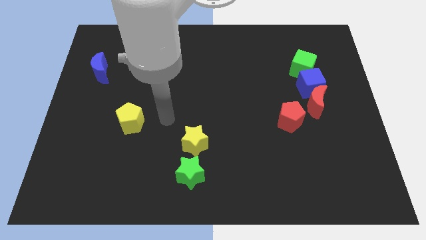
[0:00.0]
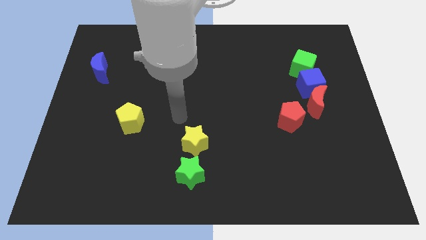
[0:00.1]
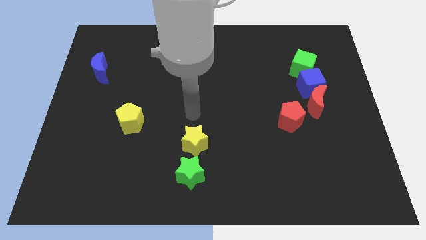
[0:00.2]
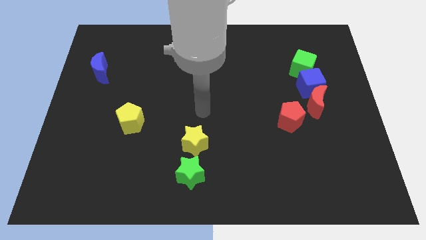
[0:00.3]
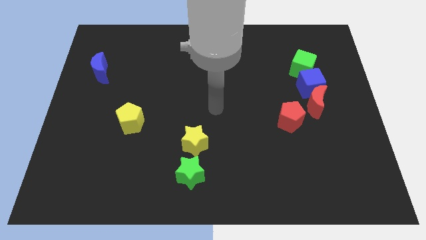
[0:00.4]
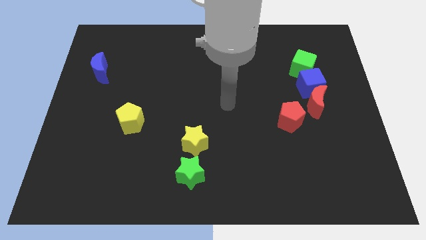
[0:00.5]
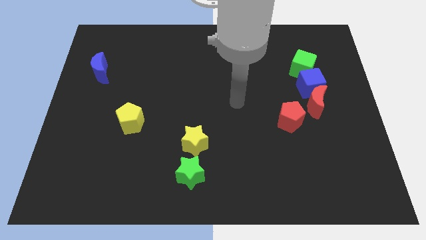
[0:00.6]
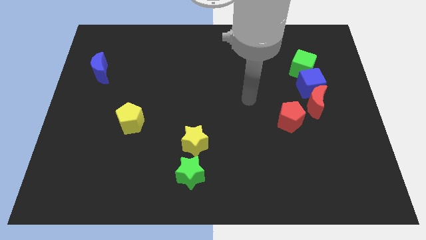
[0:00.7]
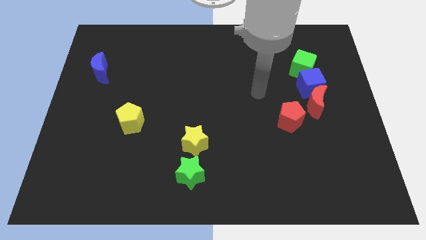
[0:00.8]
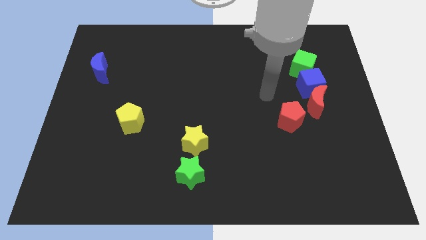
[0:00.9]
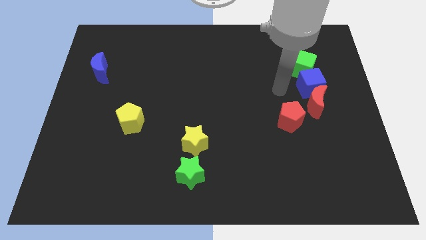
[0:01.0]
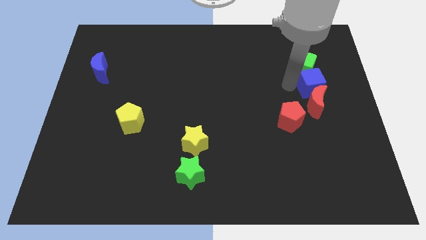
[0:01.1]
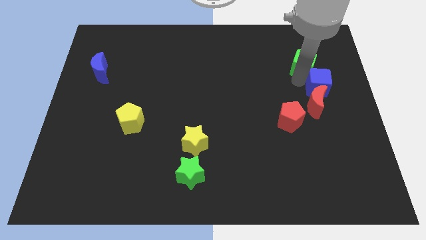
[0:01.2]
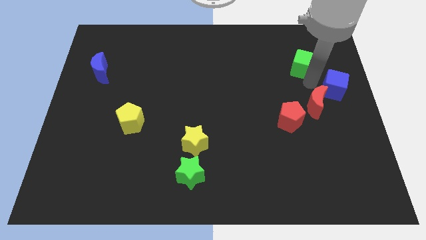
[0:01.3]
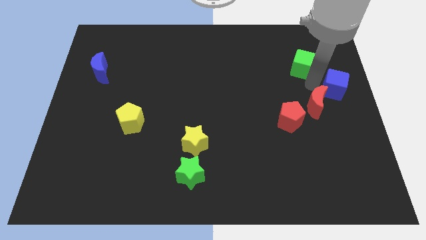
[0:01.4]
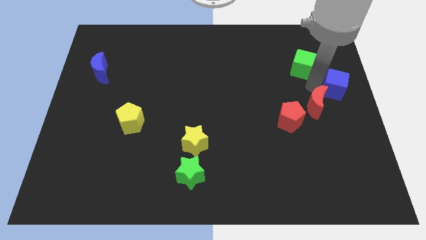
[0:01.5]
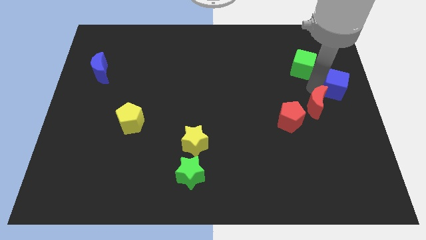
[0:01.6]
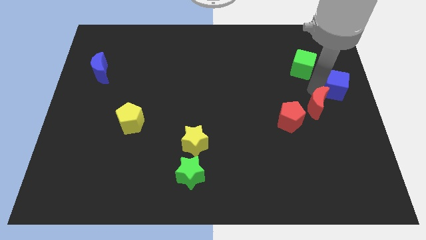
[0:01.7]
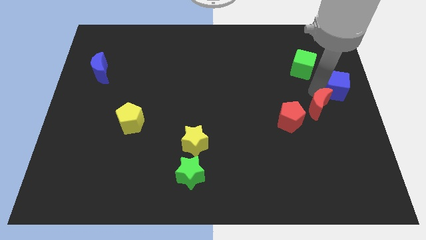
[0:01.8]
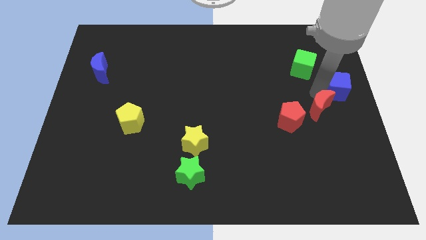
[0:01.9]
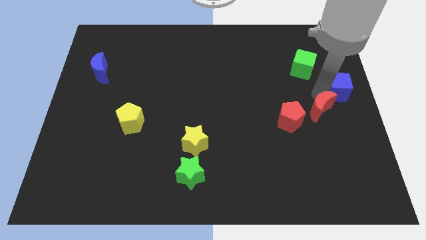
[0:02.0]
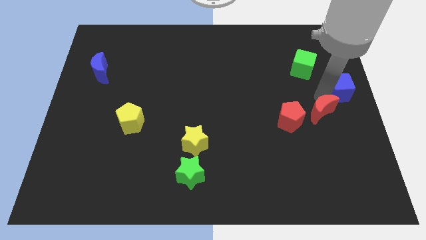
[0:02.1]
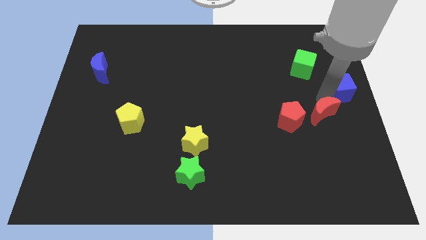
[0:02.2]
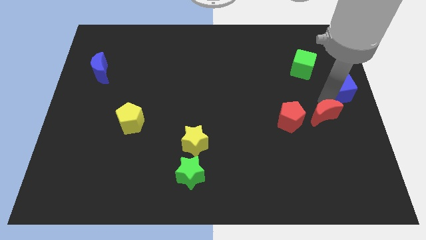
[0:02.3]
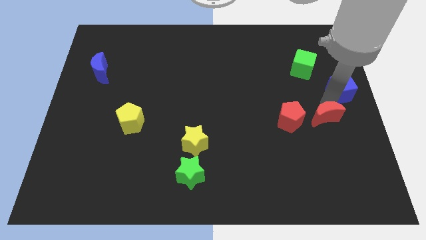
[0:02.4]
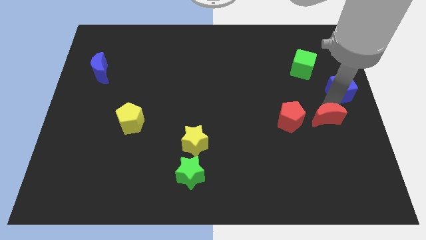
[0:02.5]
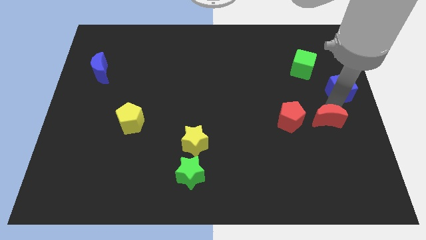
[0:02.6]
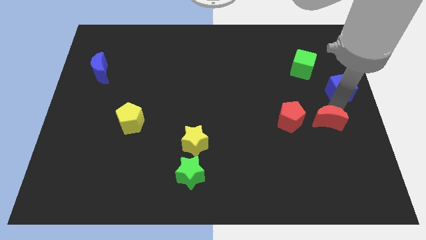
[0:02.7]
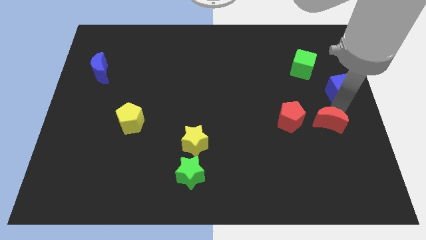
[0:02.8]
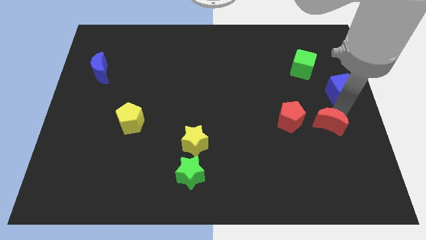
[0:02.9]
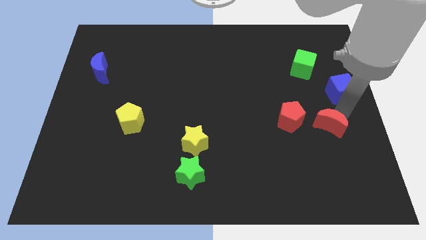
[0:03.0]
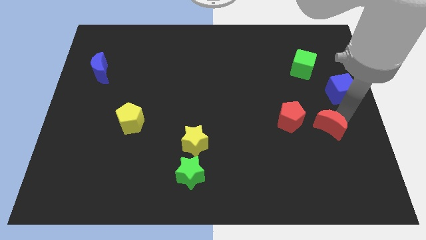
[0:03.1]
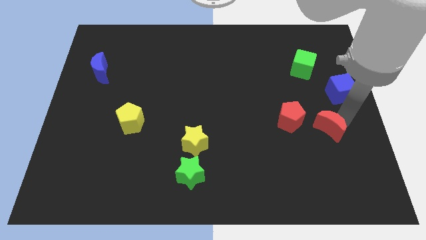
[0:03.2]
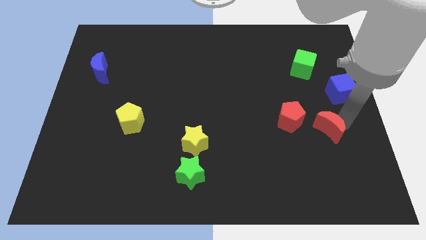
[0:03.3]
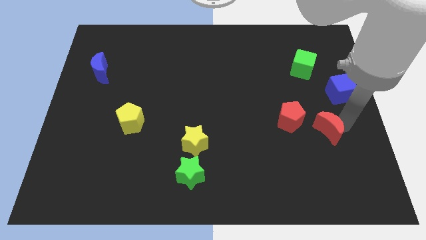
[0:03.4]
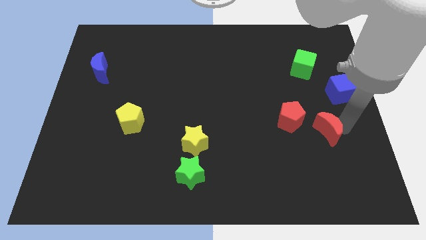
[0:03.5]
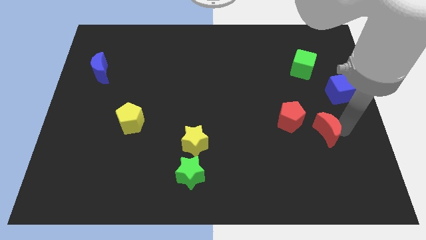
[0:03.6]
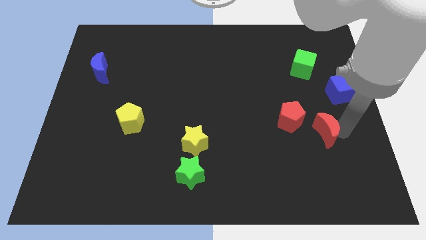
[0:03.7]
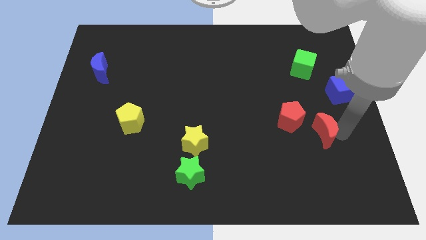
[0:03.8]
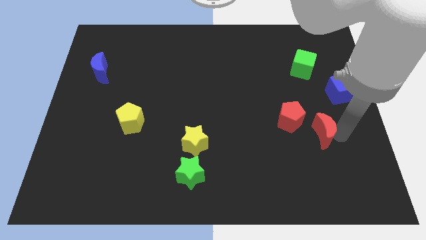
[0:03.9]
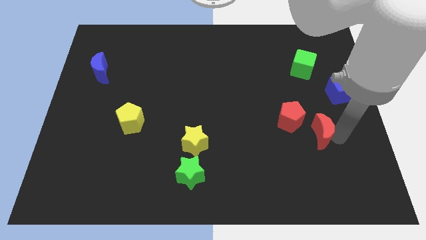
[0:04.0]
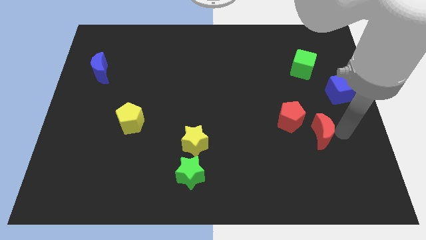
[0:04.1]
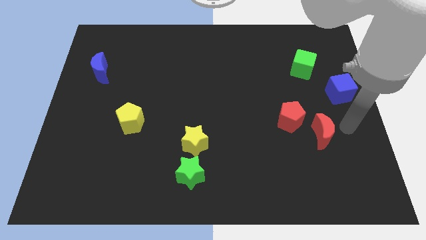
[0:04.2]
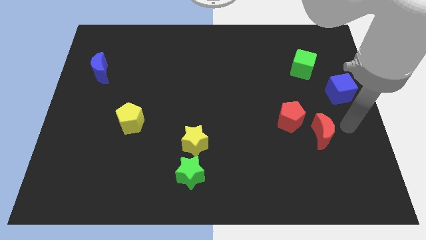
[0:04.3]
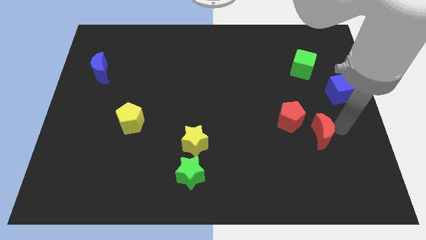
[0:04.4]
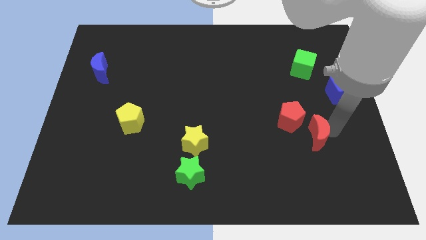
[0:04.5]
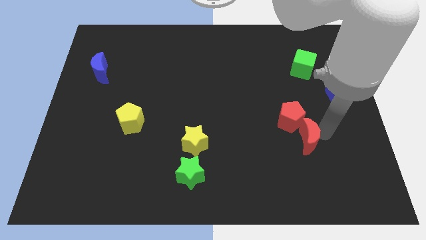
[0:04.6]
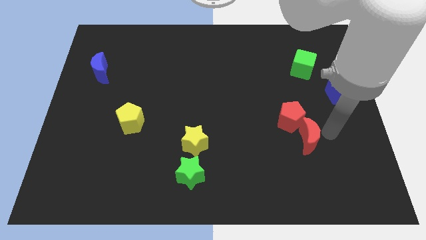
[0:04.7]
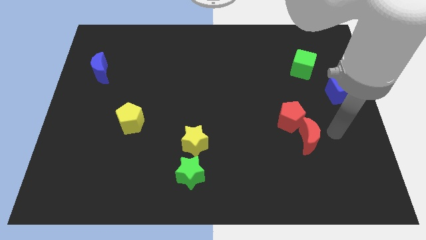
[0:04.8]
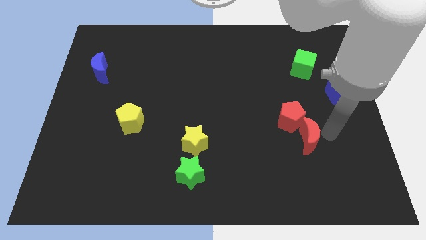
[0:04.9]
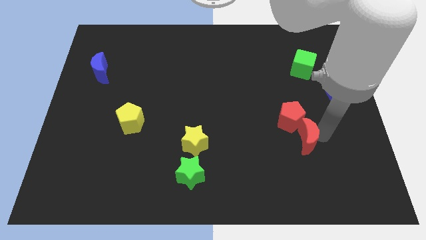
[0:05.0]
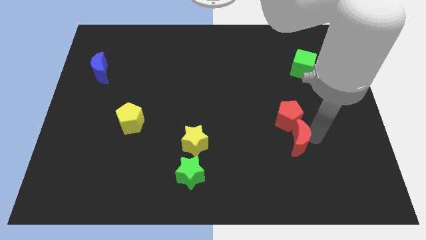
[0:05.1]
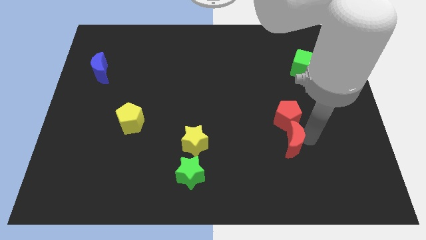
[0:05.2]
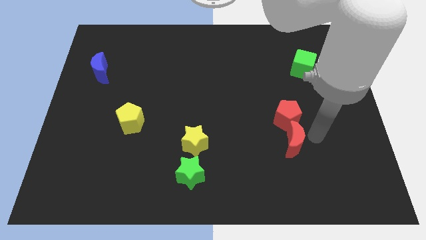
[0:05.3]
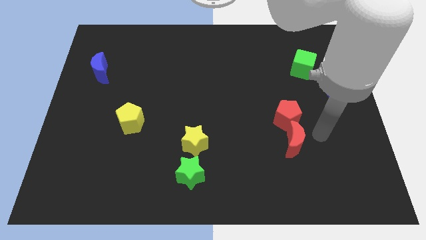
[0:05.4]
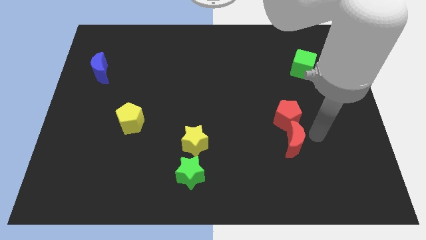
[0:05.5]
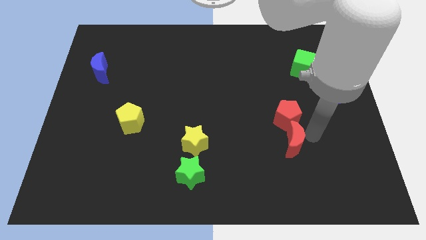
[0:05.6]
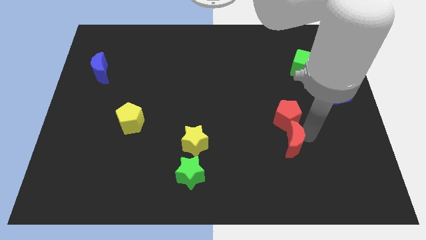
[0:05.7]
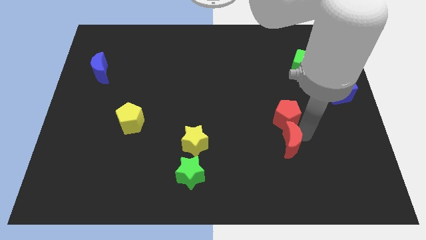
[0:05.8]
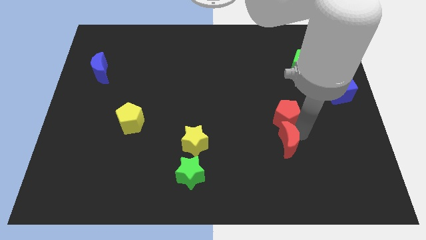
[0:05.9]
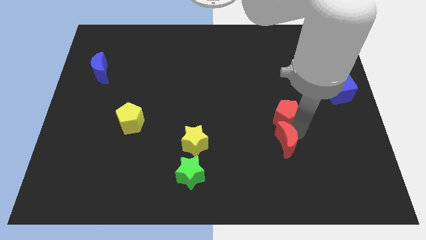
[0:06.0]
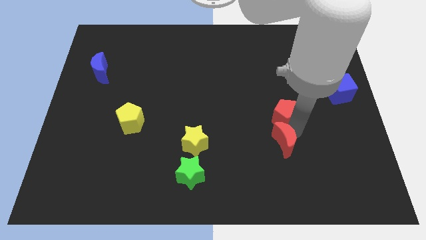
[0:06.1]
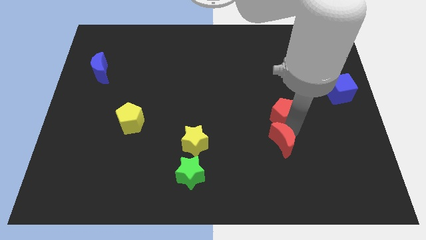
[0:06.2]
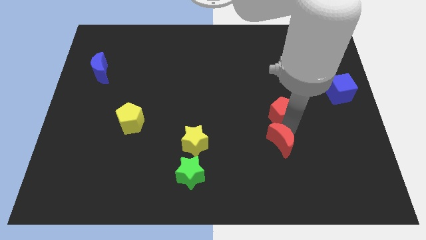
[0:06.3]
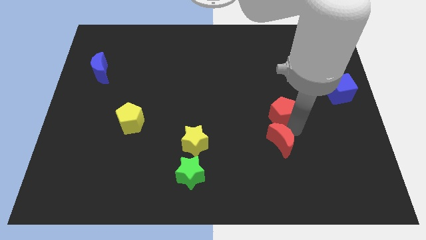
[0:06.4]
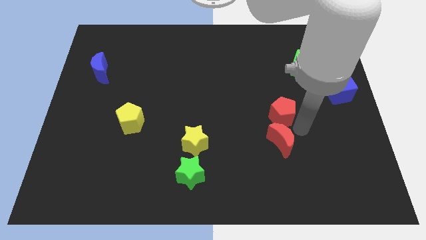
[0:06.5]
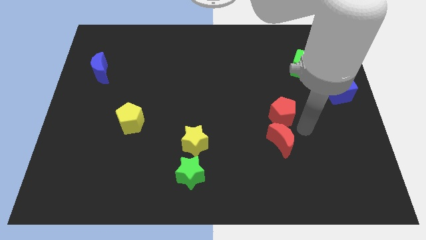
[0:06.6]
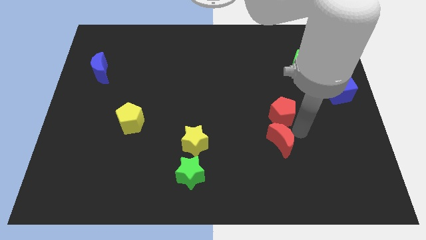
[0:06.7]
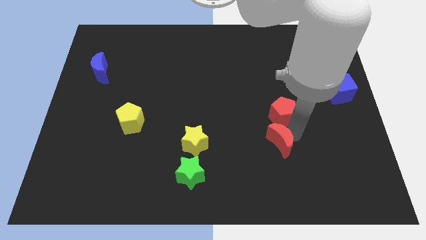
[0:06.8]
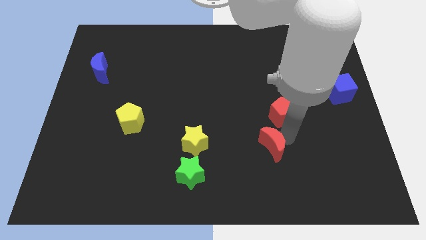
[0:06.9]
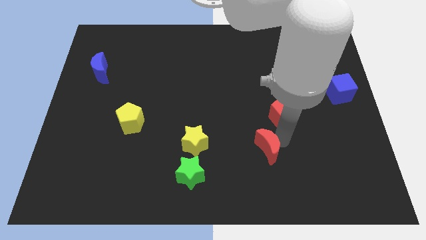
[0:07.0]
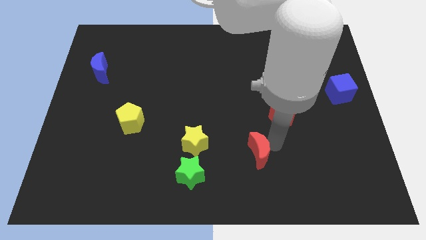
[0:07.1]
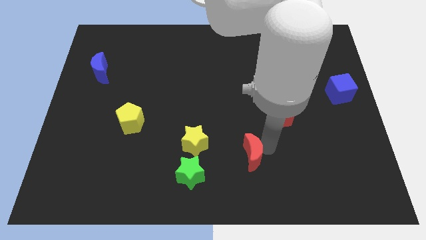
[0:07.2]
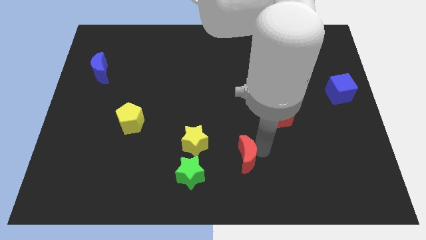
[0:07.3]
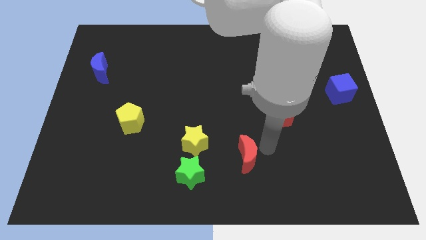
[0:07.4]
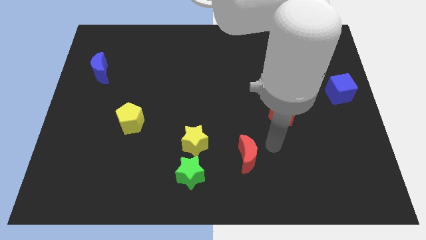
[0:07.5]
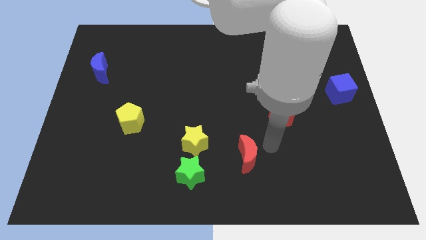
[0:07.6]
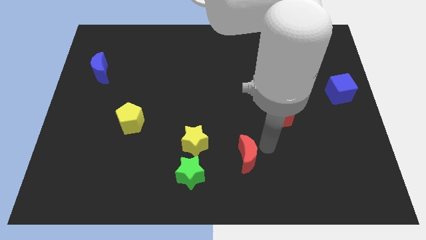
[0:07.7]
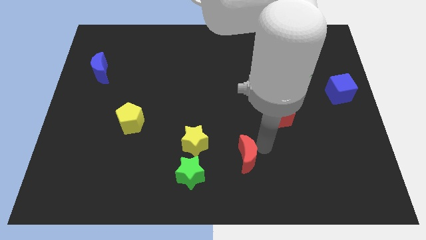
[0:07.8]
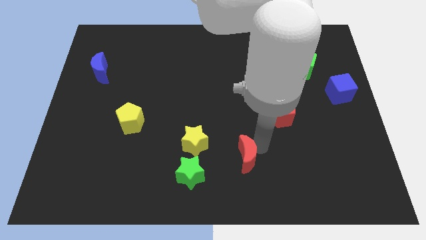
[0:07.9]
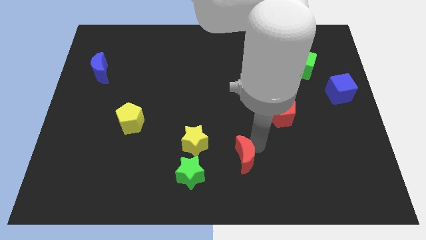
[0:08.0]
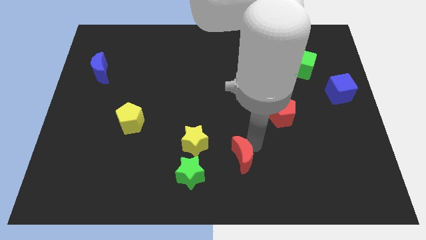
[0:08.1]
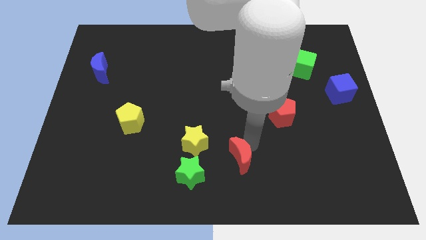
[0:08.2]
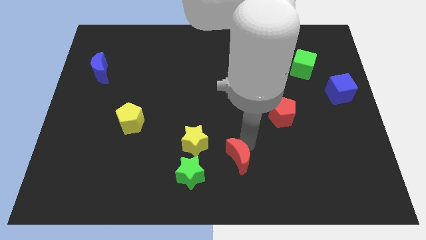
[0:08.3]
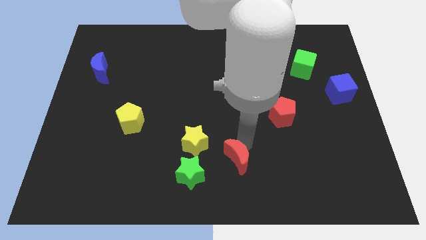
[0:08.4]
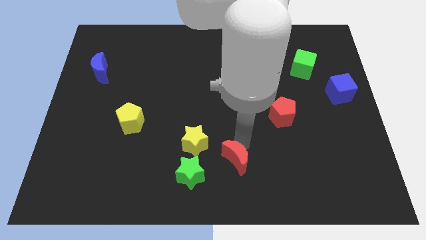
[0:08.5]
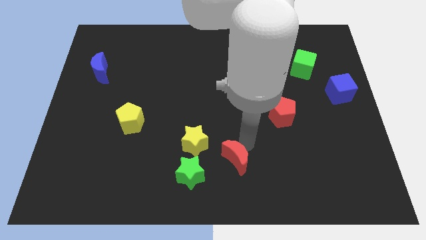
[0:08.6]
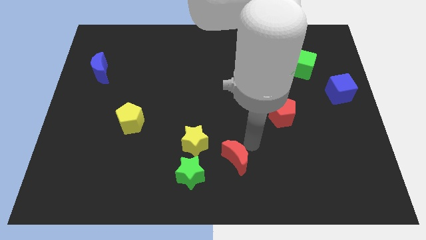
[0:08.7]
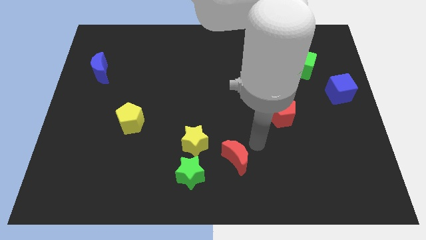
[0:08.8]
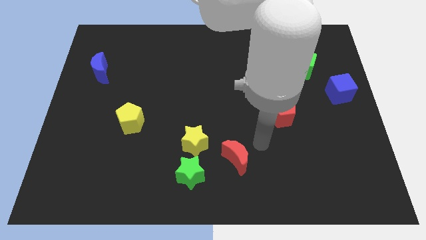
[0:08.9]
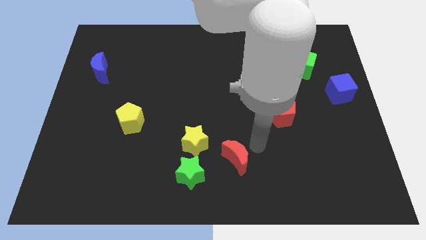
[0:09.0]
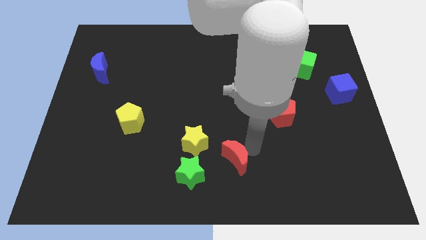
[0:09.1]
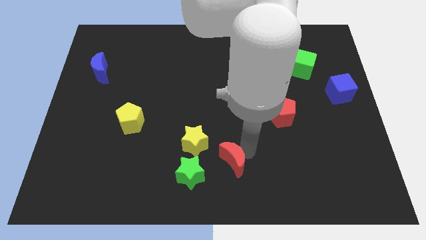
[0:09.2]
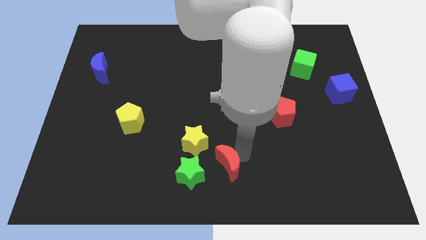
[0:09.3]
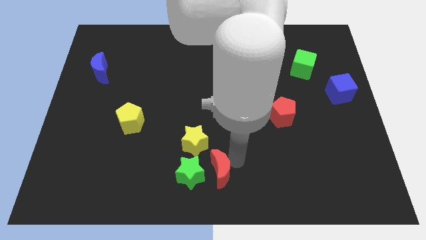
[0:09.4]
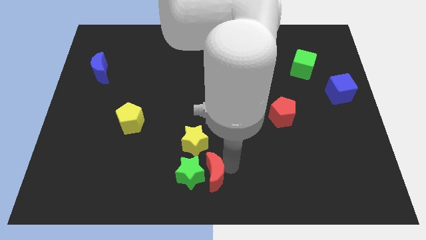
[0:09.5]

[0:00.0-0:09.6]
put the red moon close to the green star
